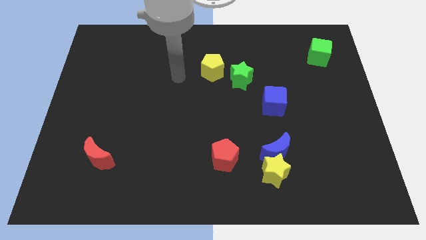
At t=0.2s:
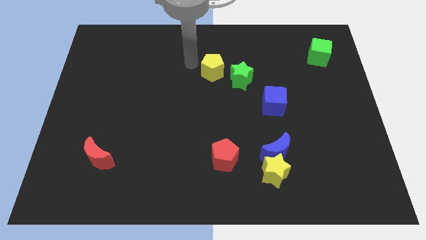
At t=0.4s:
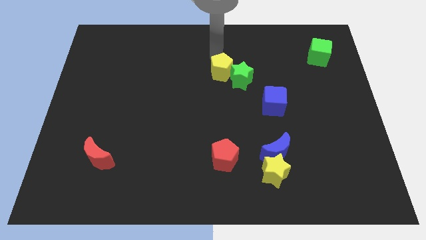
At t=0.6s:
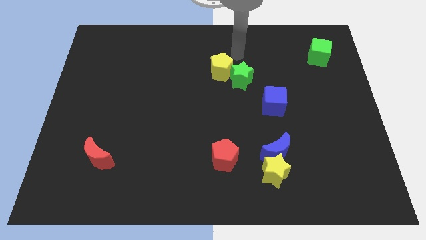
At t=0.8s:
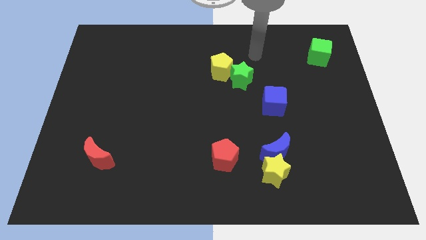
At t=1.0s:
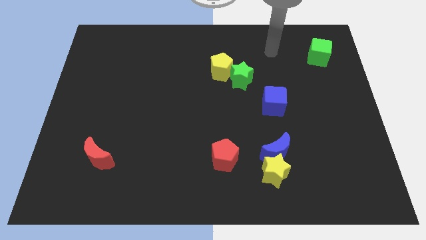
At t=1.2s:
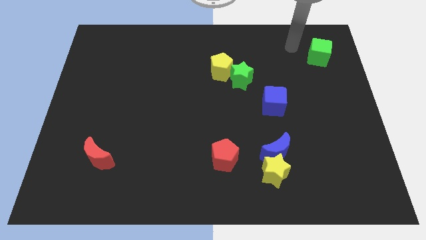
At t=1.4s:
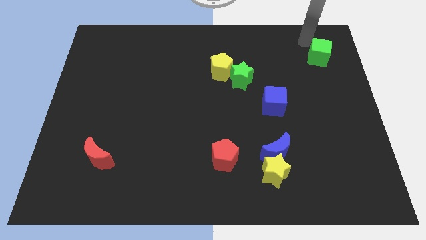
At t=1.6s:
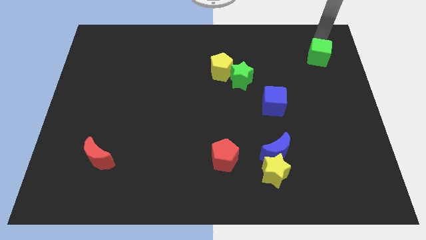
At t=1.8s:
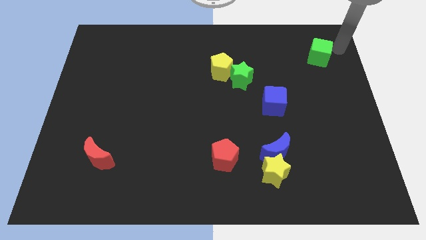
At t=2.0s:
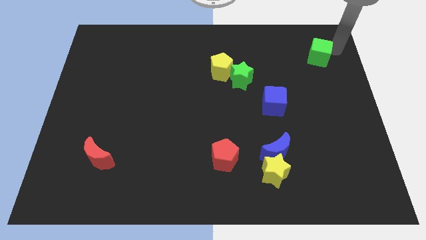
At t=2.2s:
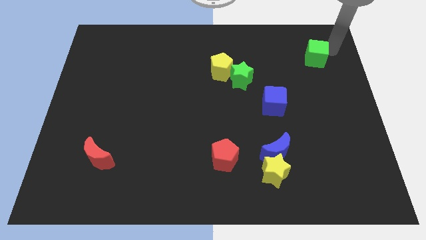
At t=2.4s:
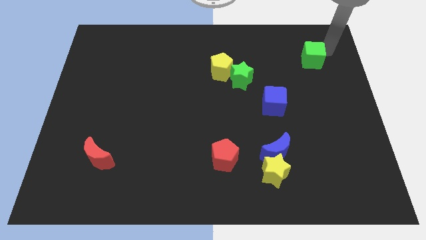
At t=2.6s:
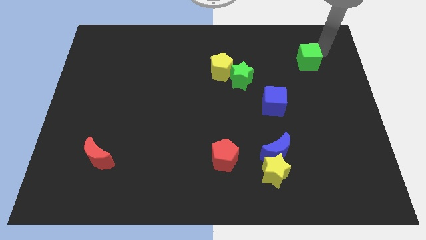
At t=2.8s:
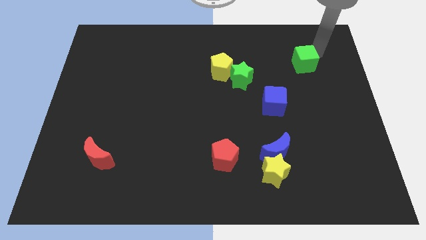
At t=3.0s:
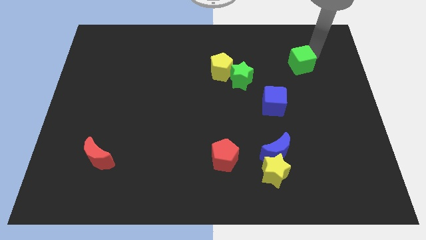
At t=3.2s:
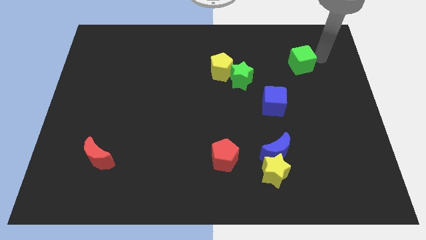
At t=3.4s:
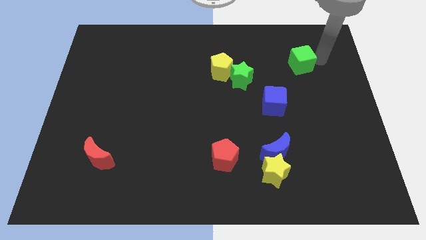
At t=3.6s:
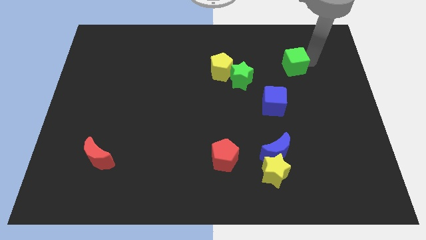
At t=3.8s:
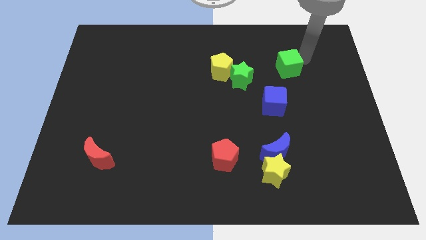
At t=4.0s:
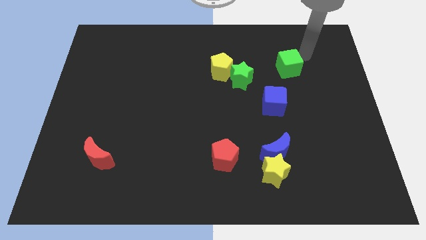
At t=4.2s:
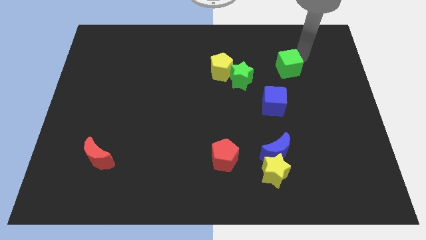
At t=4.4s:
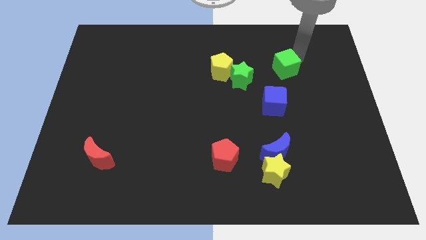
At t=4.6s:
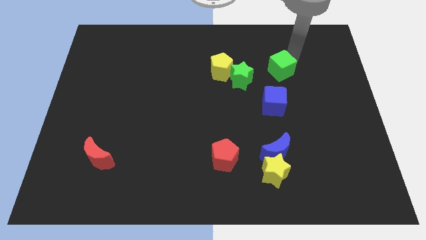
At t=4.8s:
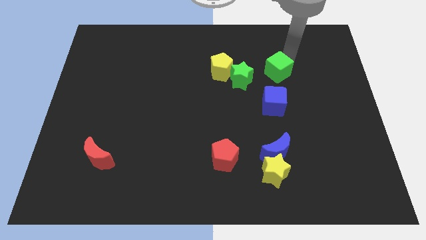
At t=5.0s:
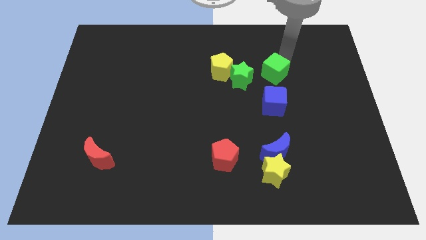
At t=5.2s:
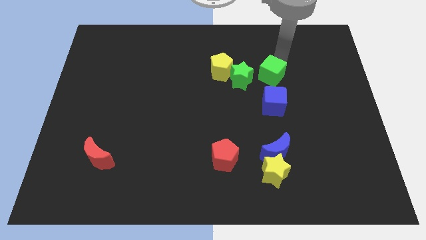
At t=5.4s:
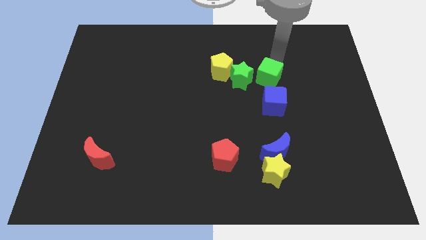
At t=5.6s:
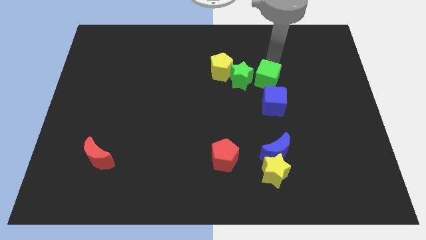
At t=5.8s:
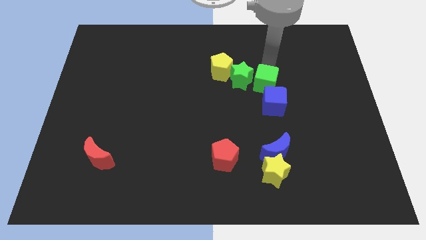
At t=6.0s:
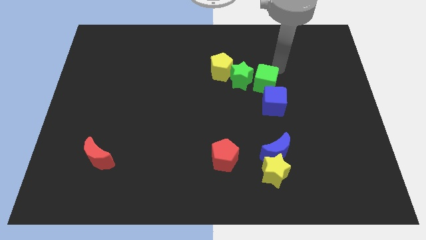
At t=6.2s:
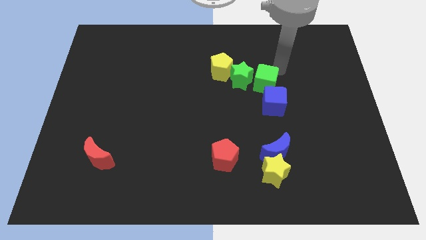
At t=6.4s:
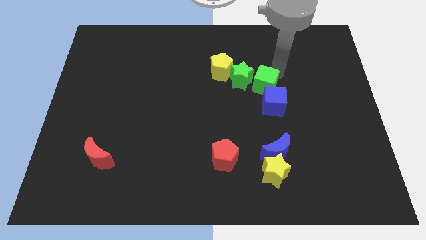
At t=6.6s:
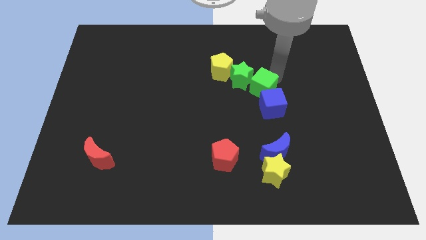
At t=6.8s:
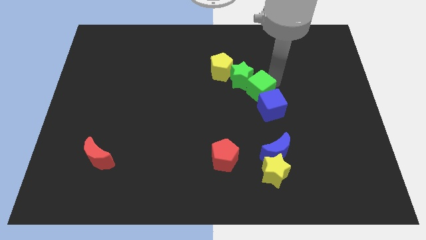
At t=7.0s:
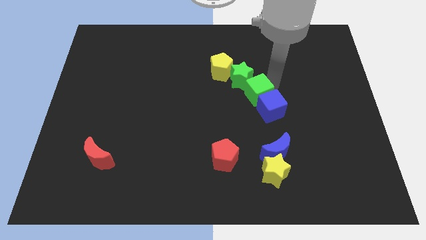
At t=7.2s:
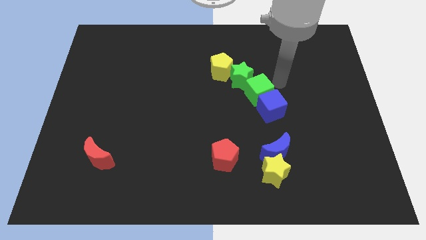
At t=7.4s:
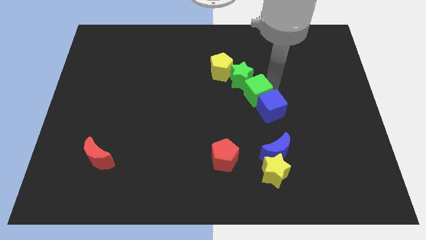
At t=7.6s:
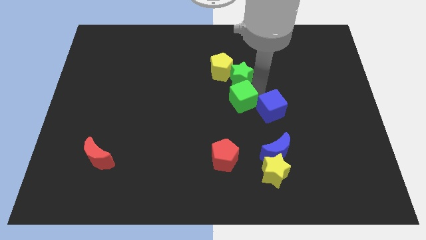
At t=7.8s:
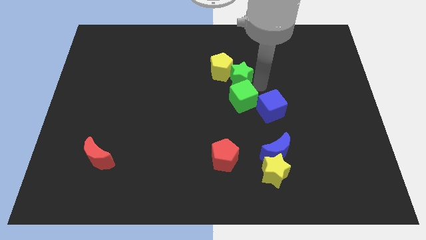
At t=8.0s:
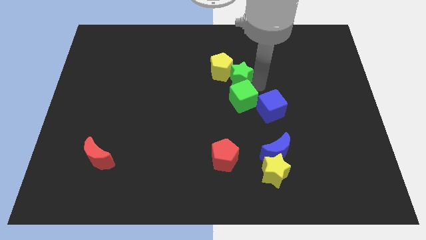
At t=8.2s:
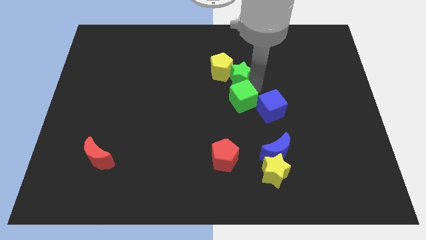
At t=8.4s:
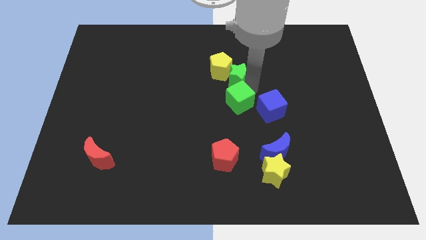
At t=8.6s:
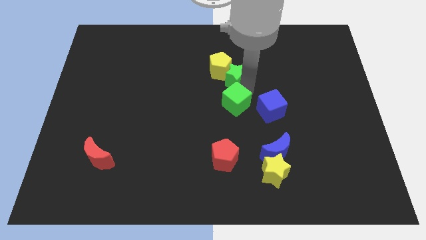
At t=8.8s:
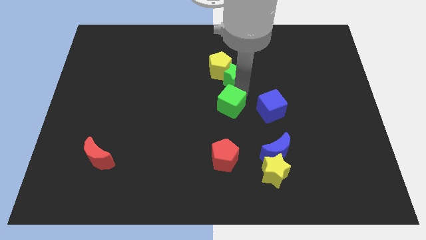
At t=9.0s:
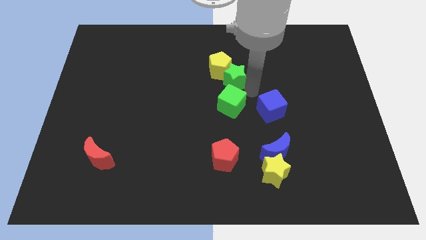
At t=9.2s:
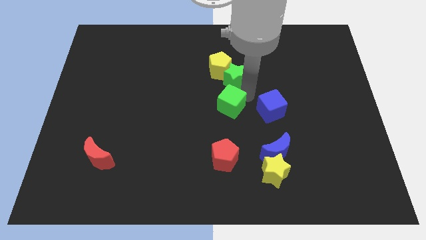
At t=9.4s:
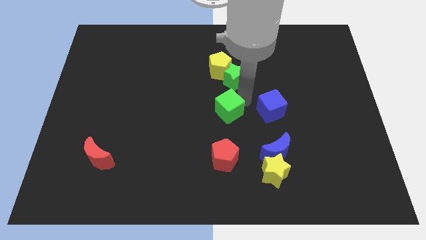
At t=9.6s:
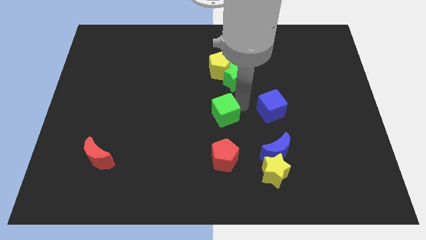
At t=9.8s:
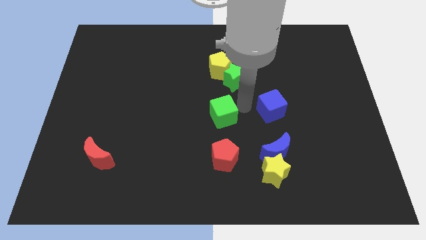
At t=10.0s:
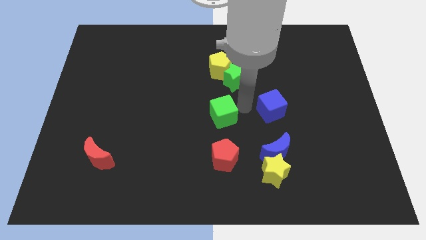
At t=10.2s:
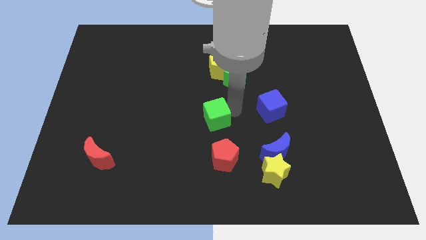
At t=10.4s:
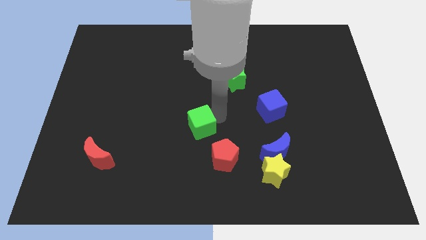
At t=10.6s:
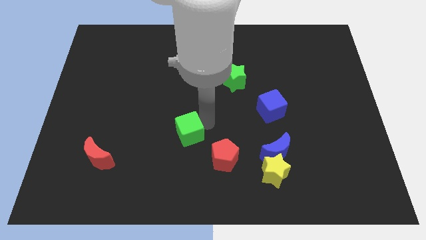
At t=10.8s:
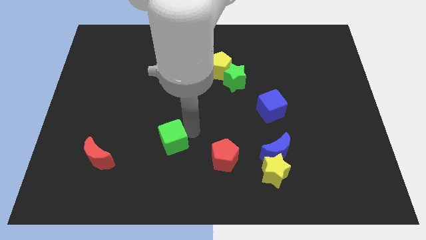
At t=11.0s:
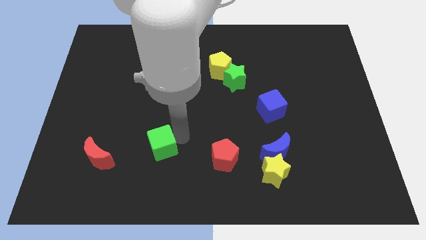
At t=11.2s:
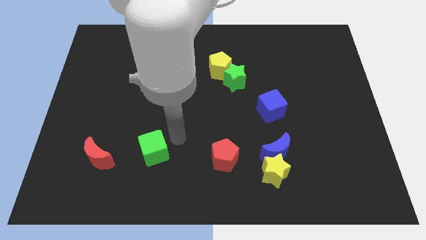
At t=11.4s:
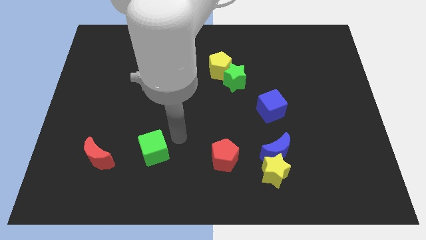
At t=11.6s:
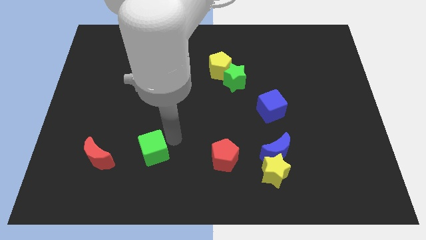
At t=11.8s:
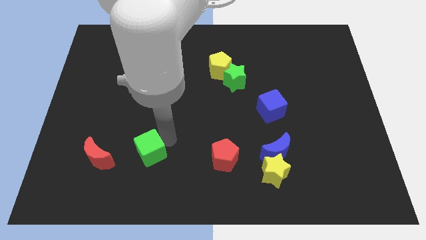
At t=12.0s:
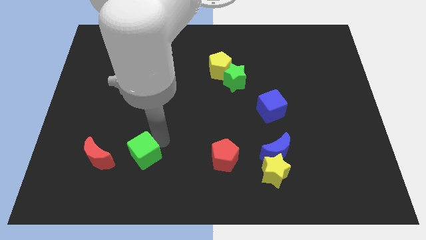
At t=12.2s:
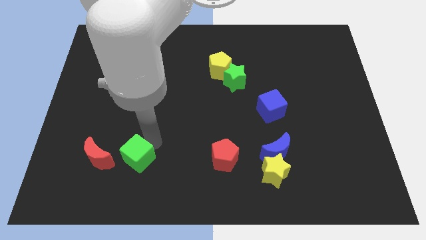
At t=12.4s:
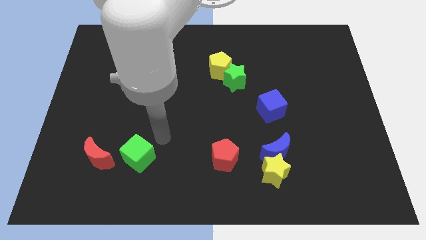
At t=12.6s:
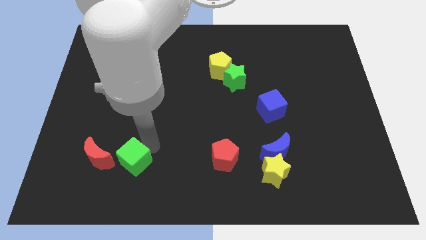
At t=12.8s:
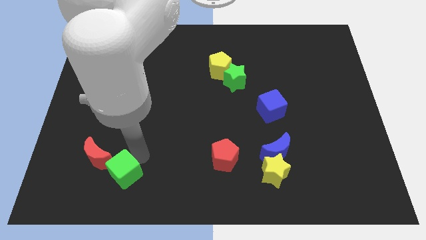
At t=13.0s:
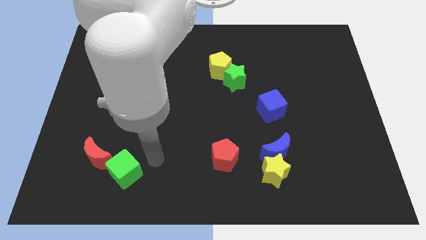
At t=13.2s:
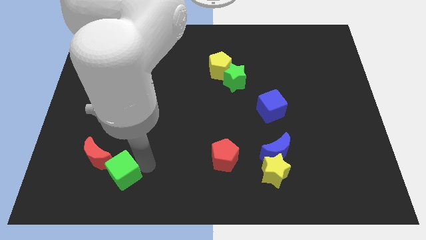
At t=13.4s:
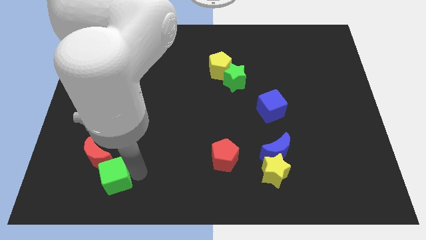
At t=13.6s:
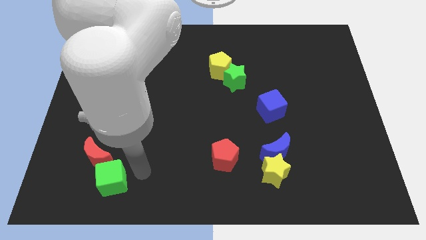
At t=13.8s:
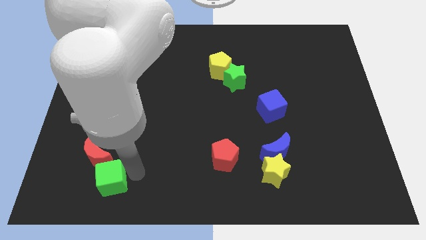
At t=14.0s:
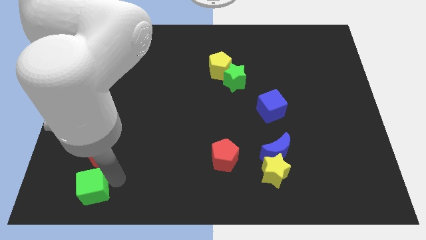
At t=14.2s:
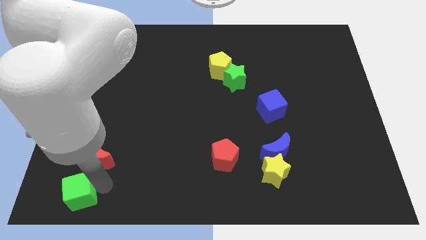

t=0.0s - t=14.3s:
push the green cube to the lower left corner
